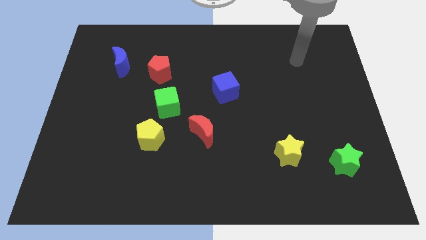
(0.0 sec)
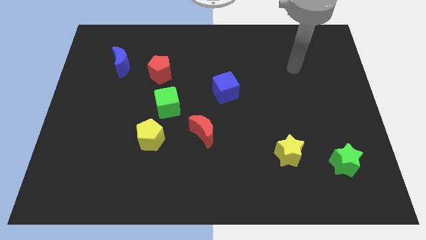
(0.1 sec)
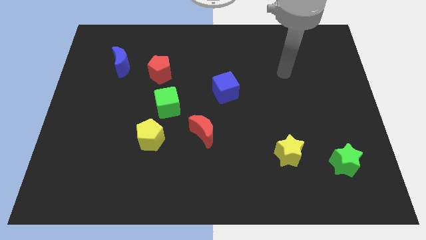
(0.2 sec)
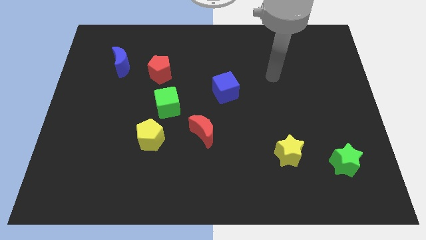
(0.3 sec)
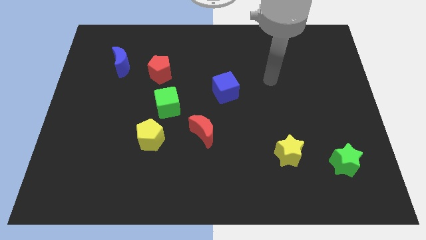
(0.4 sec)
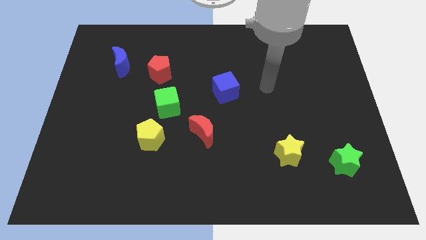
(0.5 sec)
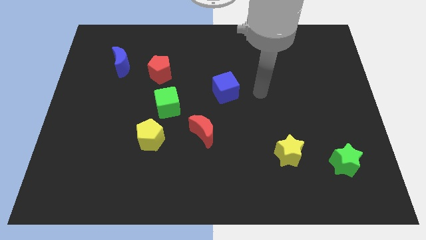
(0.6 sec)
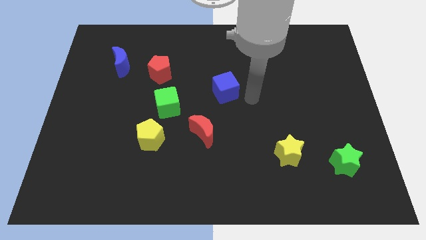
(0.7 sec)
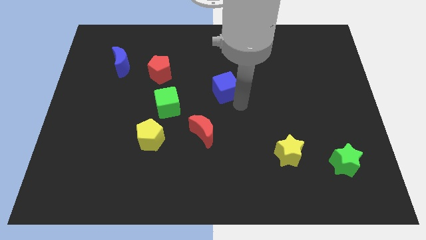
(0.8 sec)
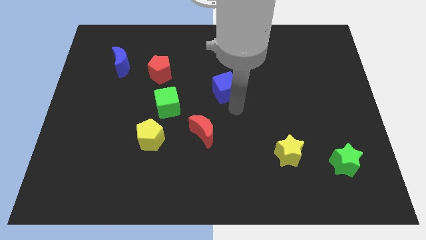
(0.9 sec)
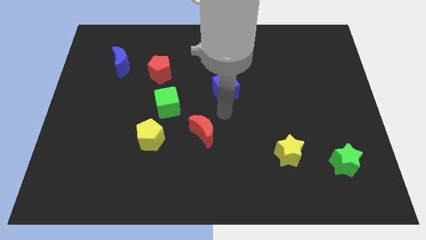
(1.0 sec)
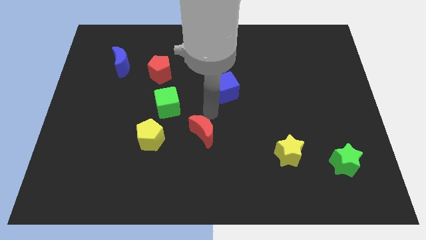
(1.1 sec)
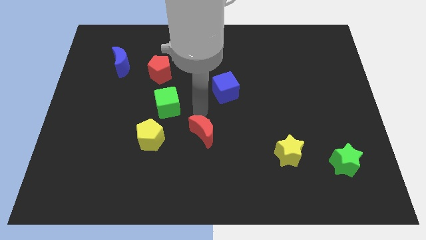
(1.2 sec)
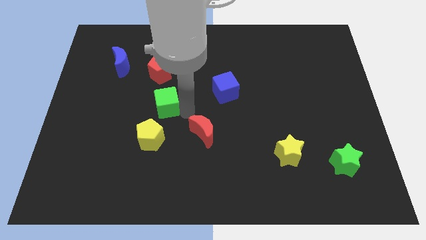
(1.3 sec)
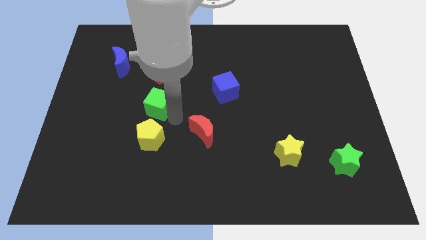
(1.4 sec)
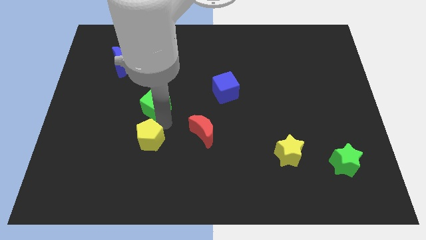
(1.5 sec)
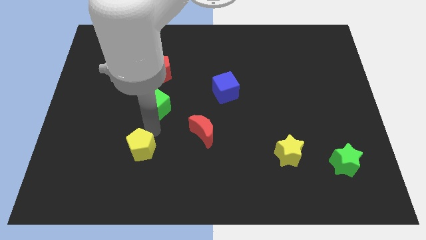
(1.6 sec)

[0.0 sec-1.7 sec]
pull the green cube apart from the yellow pentagon

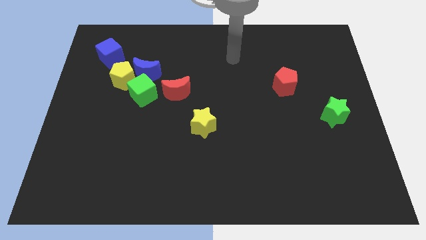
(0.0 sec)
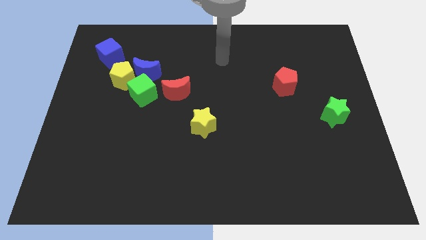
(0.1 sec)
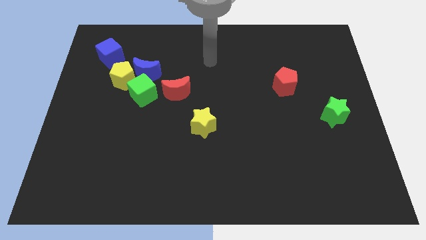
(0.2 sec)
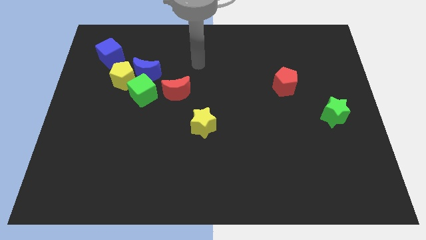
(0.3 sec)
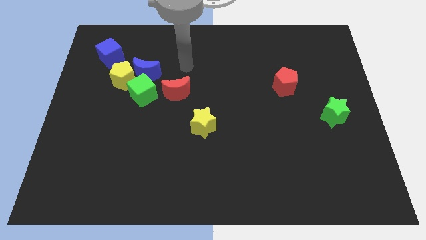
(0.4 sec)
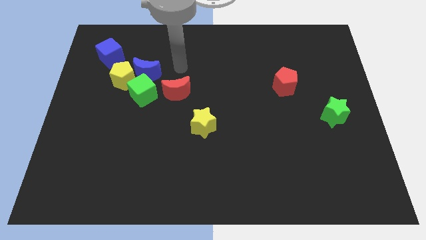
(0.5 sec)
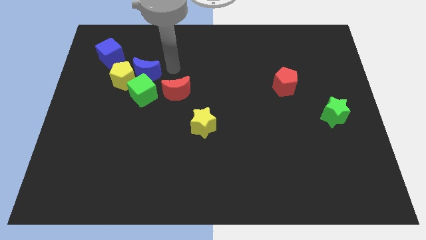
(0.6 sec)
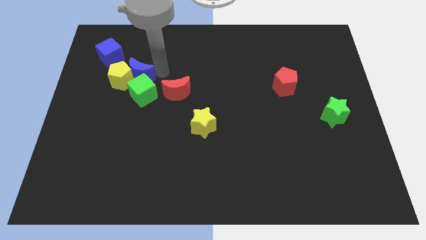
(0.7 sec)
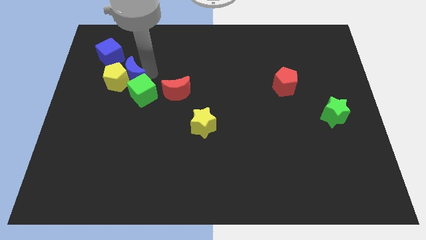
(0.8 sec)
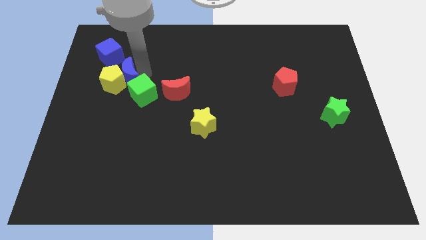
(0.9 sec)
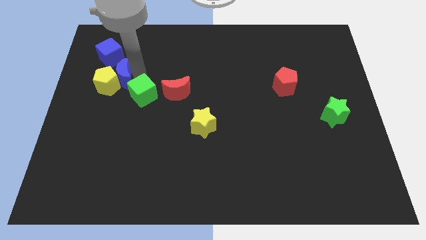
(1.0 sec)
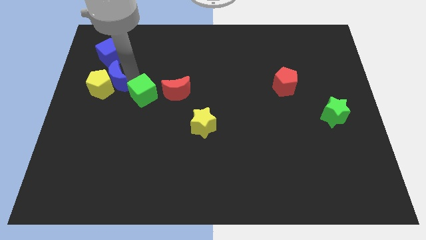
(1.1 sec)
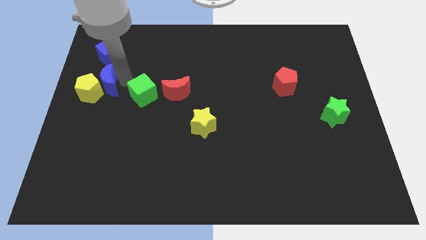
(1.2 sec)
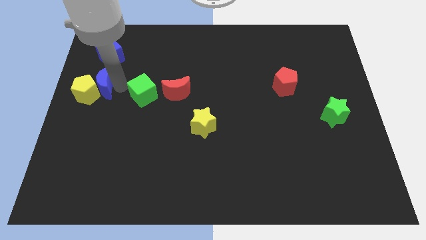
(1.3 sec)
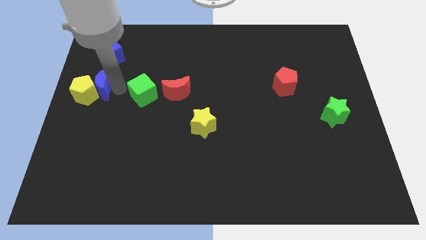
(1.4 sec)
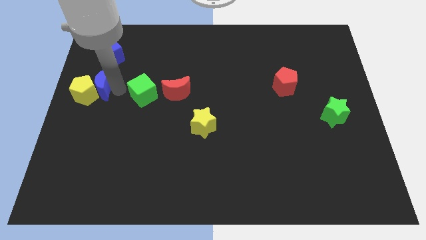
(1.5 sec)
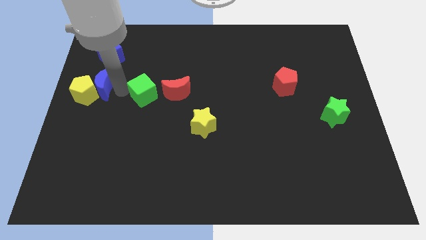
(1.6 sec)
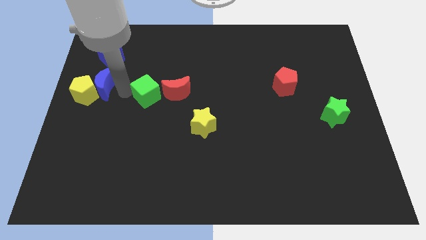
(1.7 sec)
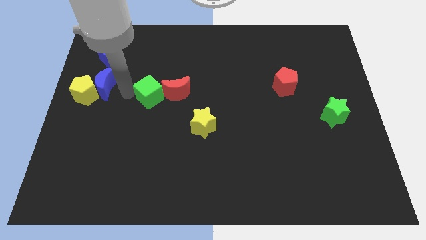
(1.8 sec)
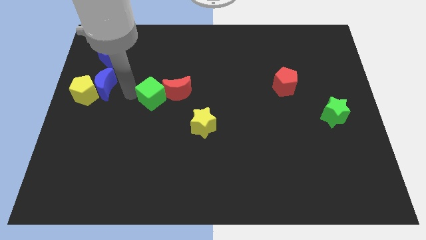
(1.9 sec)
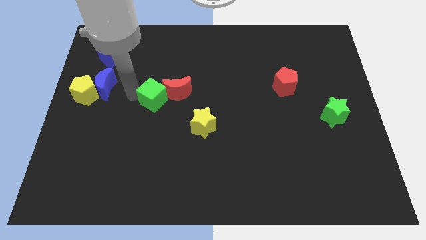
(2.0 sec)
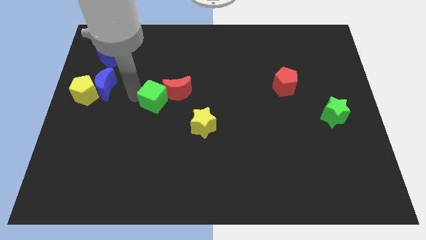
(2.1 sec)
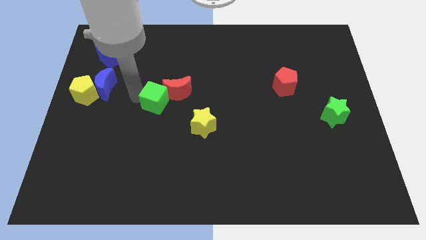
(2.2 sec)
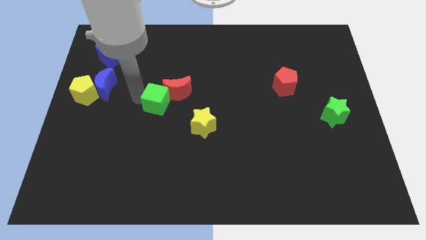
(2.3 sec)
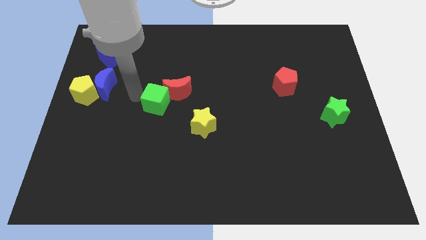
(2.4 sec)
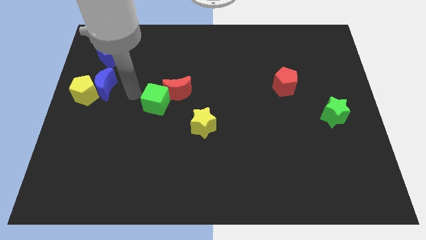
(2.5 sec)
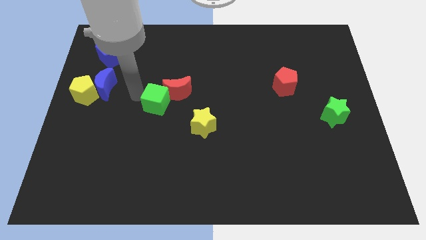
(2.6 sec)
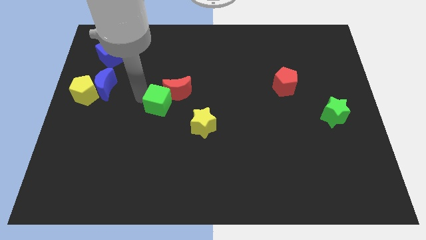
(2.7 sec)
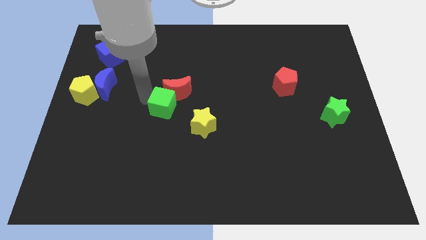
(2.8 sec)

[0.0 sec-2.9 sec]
move the green cube away from the blue moon, yellow pentagon, and red moon

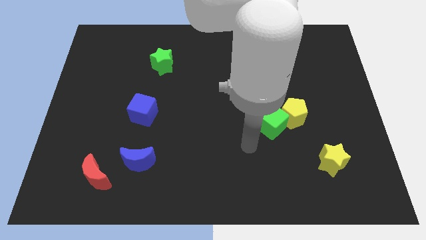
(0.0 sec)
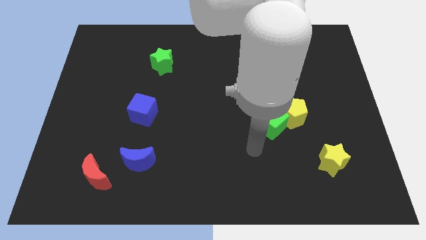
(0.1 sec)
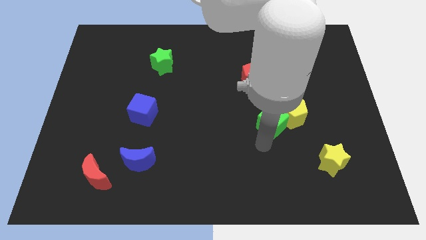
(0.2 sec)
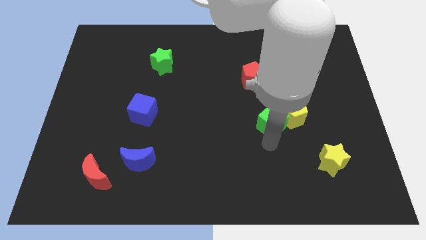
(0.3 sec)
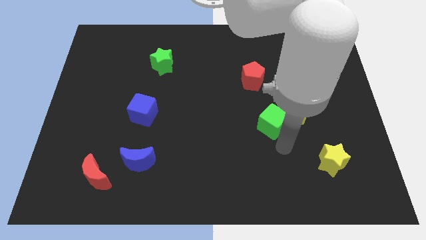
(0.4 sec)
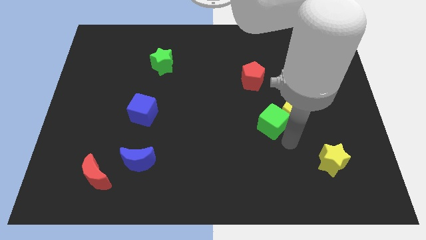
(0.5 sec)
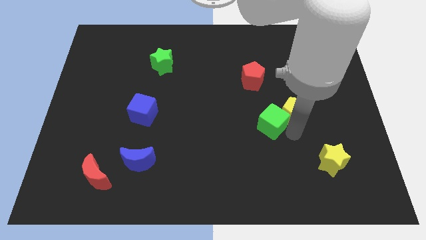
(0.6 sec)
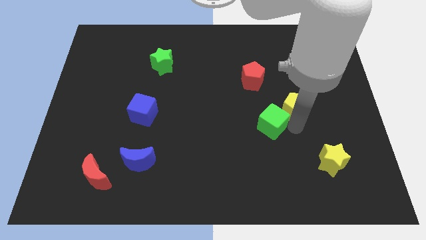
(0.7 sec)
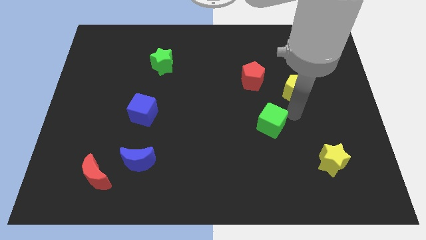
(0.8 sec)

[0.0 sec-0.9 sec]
separate the green cube from the yellow pentagon

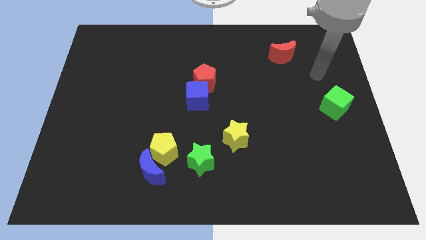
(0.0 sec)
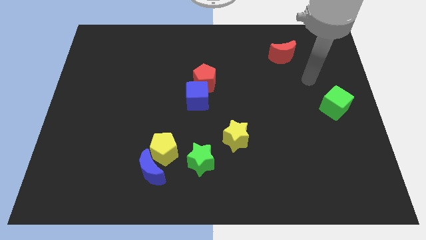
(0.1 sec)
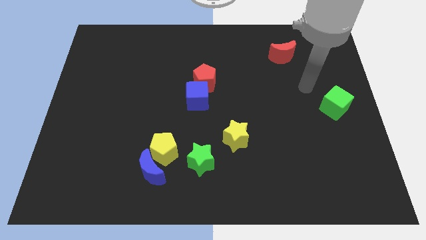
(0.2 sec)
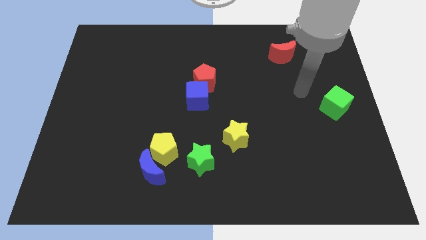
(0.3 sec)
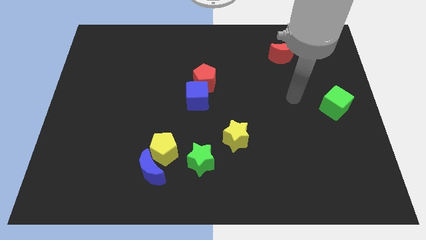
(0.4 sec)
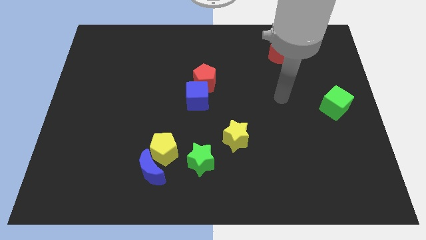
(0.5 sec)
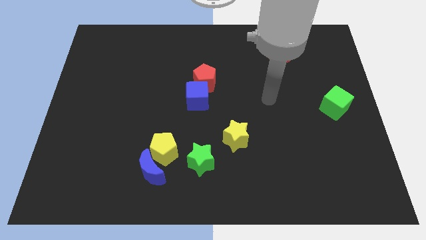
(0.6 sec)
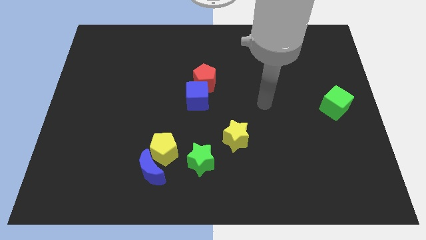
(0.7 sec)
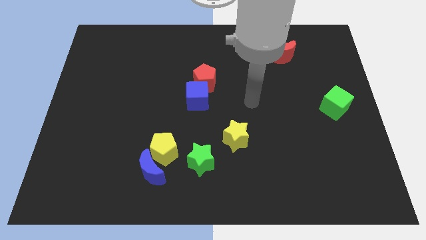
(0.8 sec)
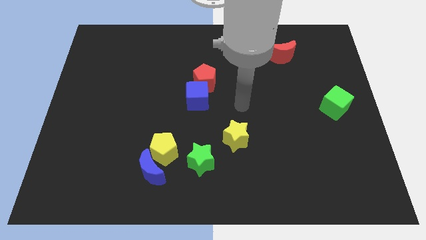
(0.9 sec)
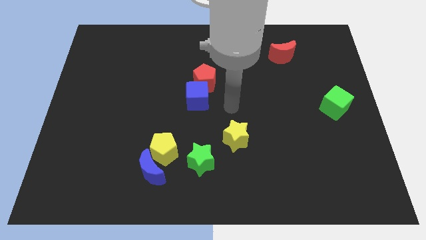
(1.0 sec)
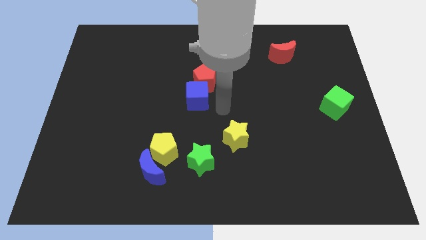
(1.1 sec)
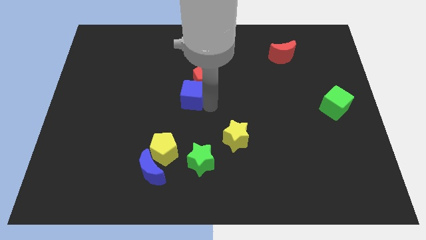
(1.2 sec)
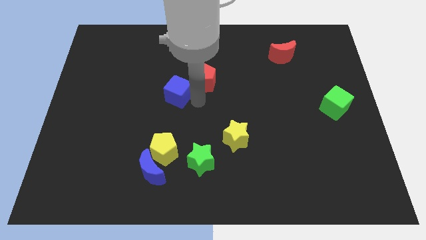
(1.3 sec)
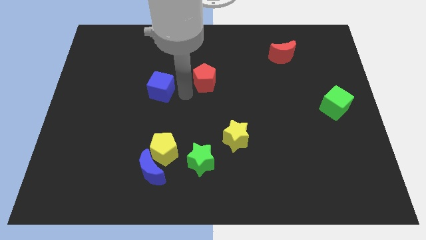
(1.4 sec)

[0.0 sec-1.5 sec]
pull the red pentagon apart from the blue cube

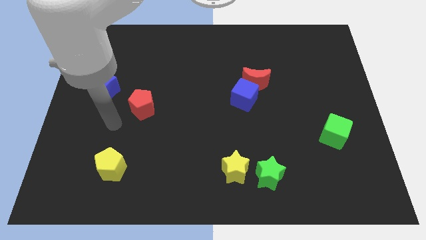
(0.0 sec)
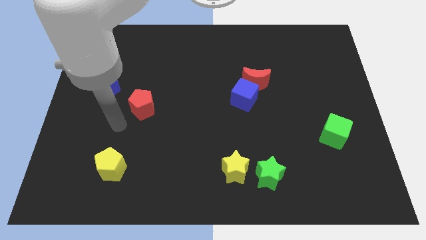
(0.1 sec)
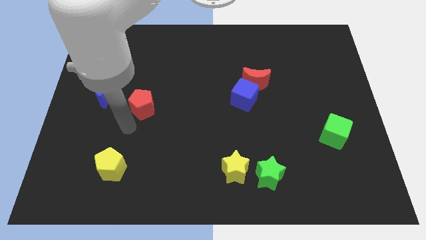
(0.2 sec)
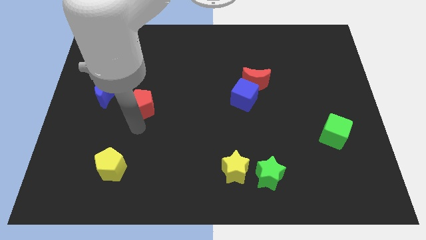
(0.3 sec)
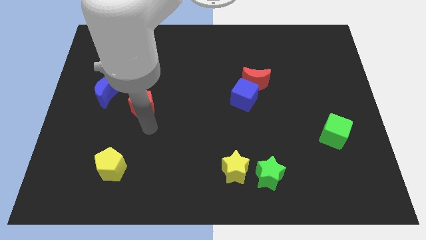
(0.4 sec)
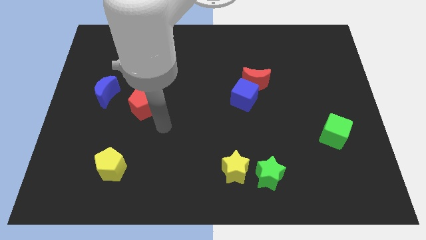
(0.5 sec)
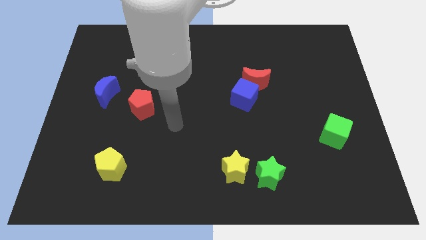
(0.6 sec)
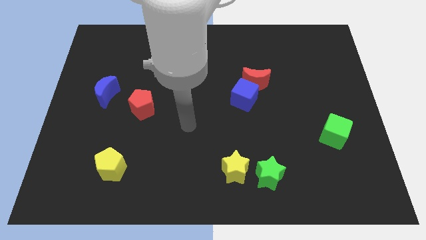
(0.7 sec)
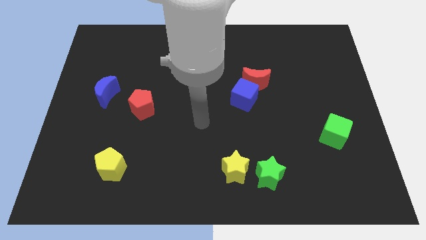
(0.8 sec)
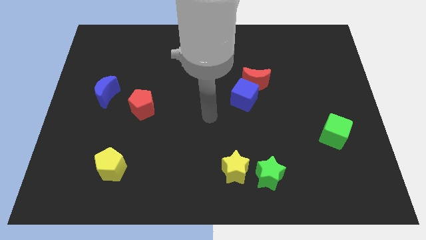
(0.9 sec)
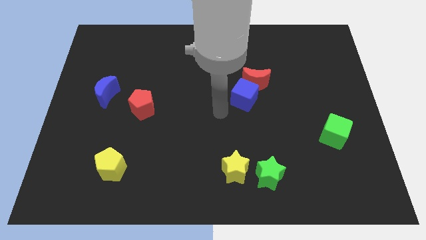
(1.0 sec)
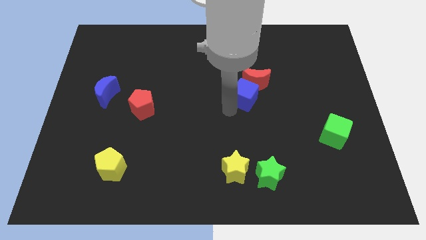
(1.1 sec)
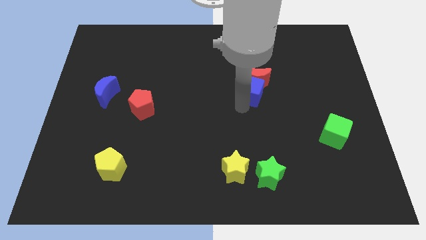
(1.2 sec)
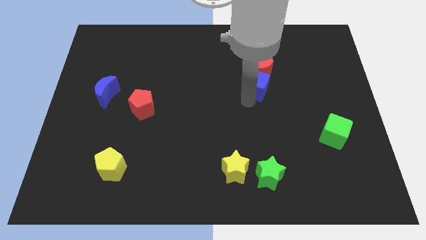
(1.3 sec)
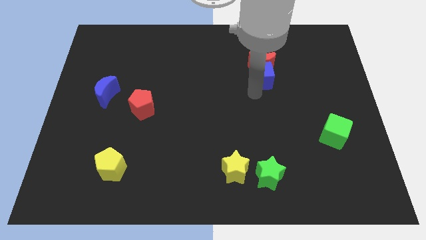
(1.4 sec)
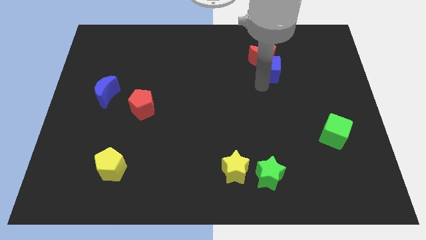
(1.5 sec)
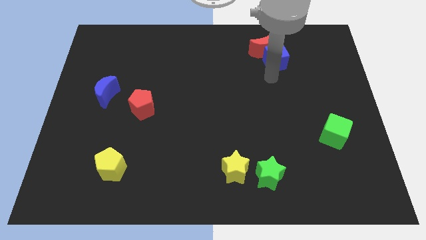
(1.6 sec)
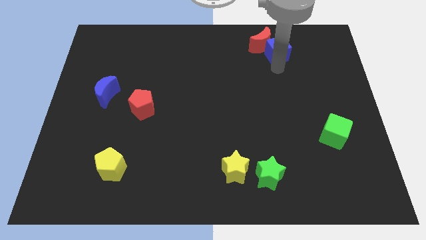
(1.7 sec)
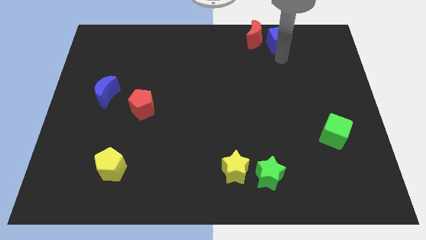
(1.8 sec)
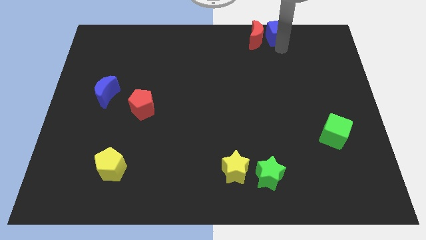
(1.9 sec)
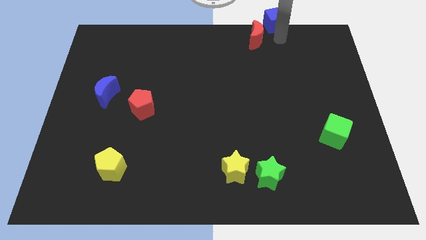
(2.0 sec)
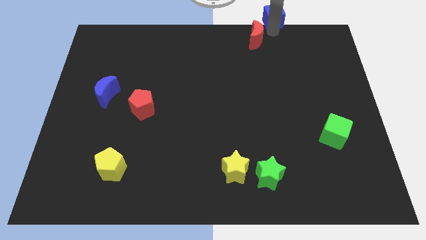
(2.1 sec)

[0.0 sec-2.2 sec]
pull the red moon apart from the blue cube
